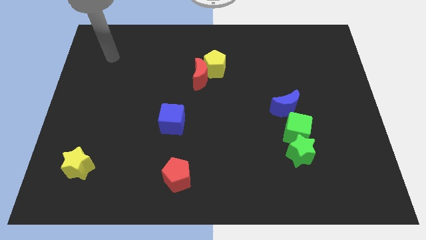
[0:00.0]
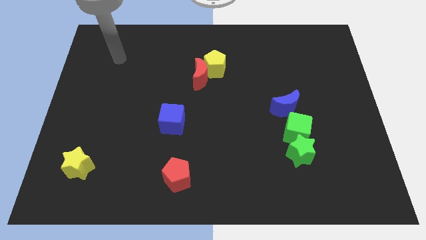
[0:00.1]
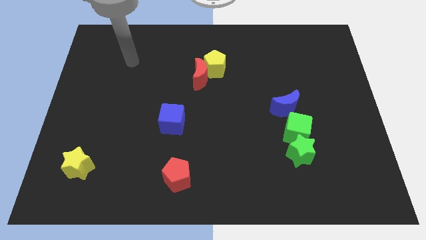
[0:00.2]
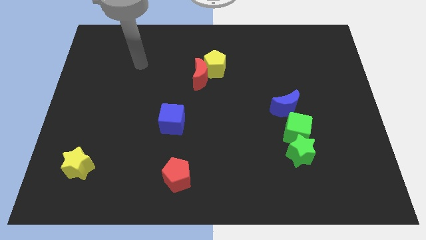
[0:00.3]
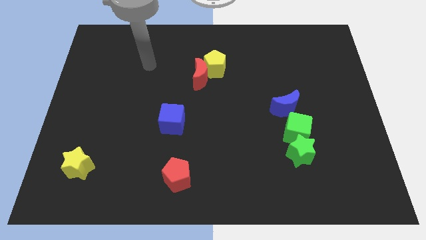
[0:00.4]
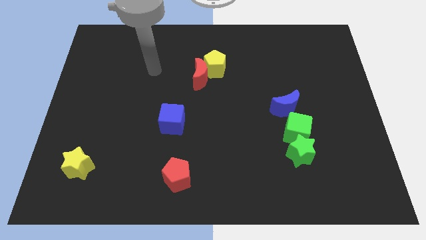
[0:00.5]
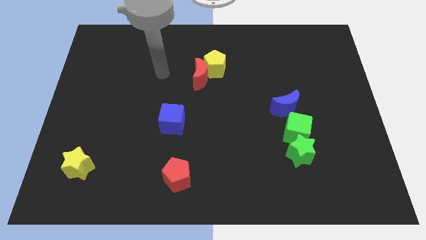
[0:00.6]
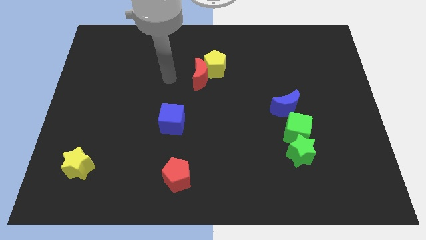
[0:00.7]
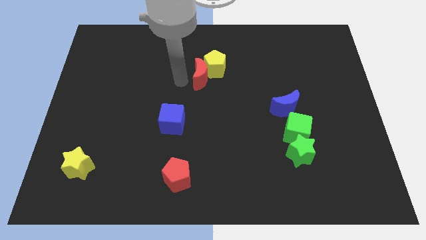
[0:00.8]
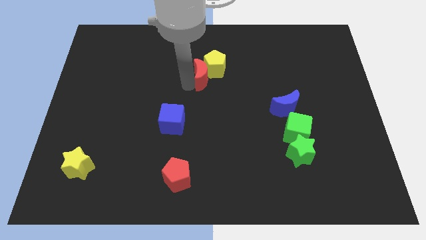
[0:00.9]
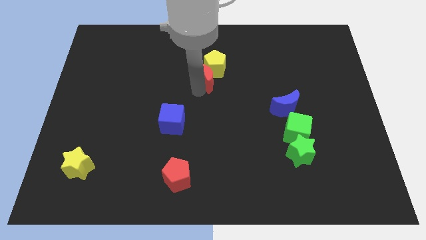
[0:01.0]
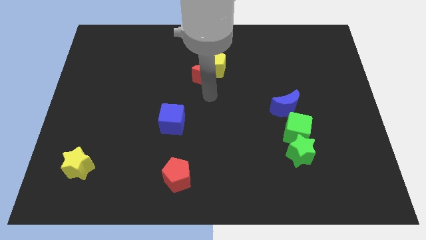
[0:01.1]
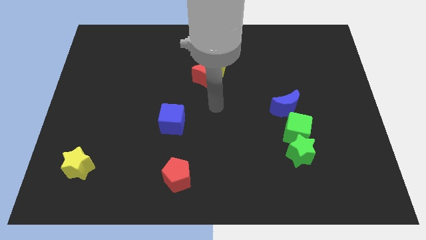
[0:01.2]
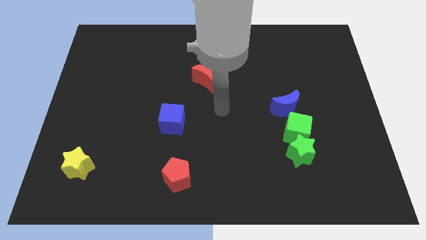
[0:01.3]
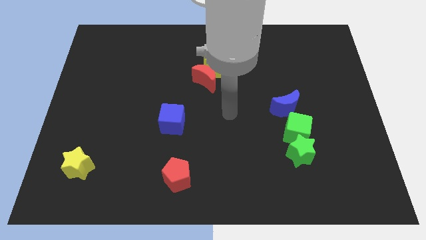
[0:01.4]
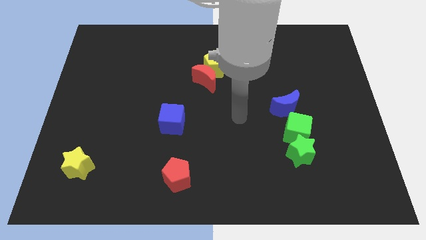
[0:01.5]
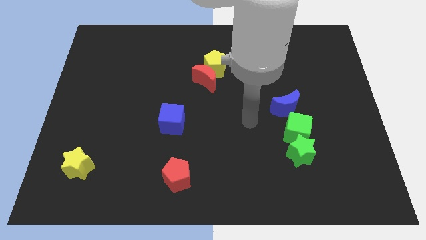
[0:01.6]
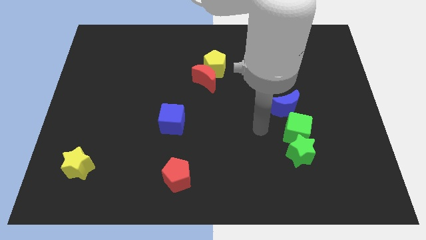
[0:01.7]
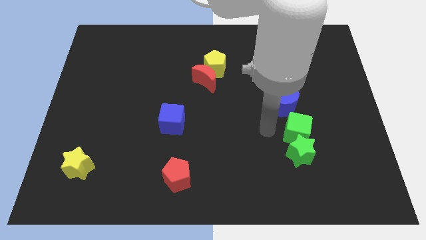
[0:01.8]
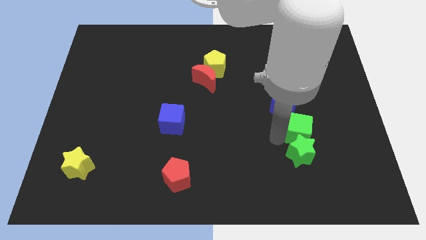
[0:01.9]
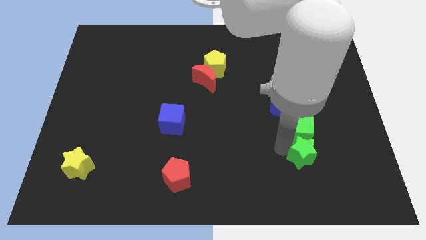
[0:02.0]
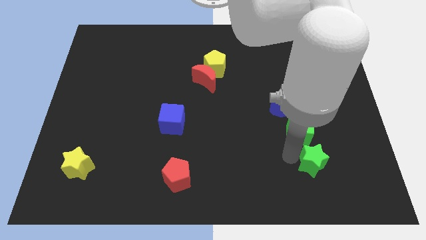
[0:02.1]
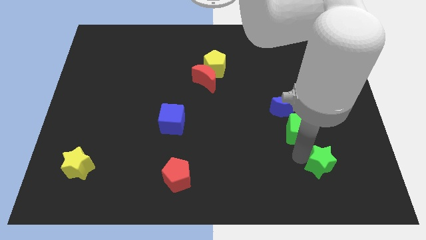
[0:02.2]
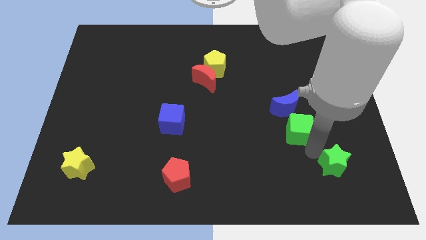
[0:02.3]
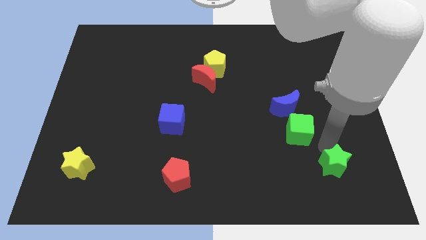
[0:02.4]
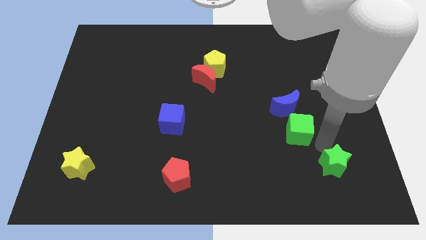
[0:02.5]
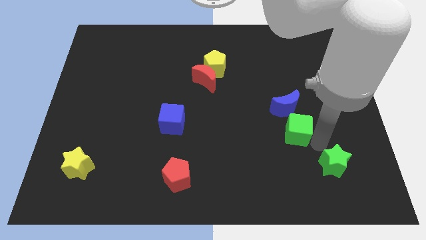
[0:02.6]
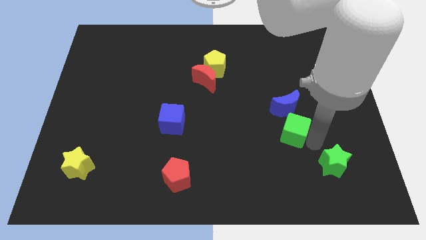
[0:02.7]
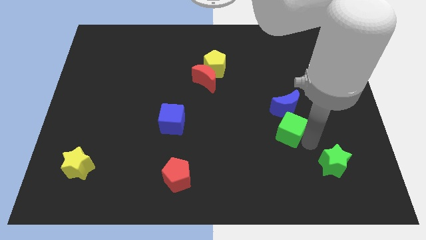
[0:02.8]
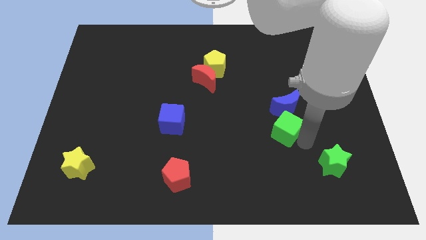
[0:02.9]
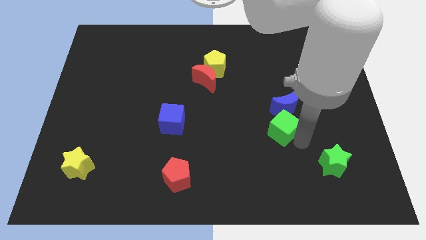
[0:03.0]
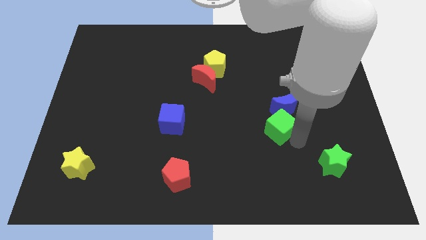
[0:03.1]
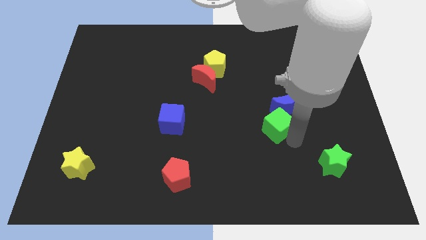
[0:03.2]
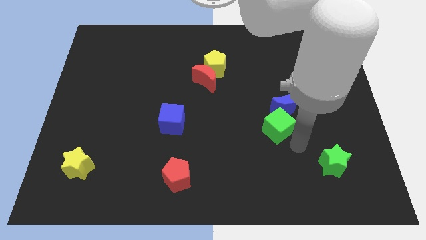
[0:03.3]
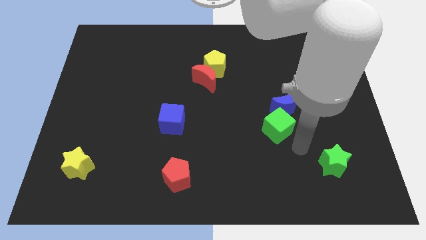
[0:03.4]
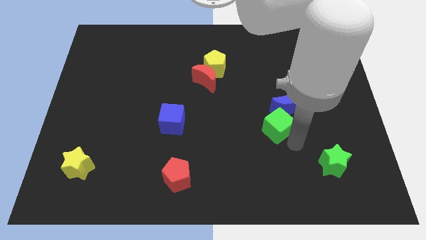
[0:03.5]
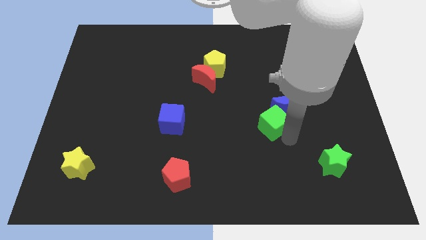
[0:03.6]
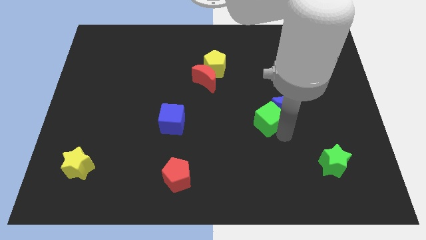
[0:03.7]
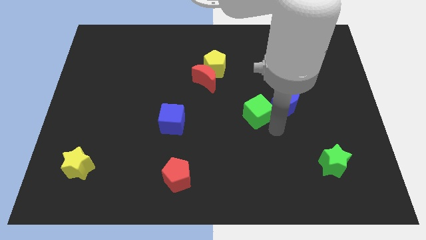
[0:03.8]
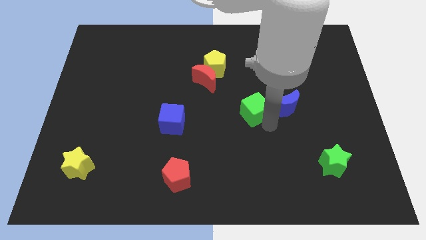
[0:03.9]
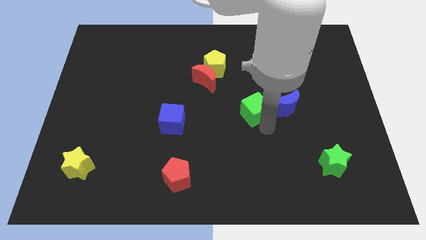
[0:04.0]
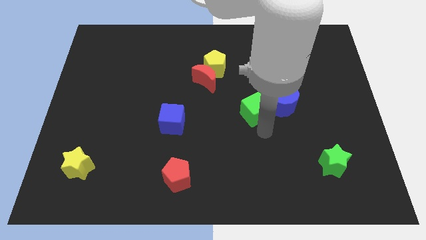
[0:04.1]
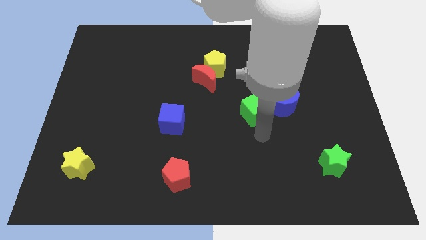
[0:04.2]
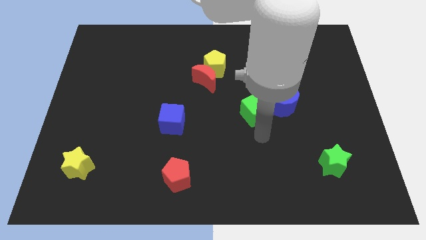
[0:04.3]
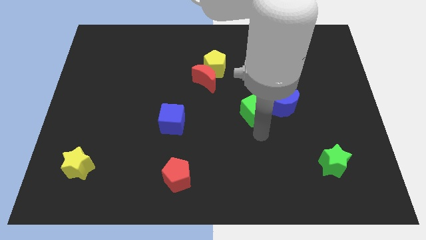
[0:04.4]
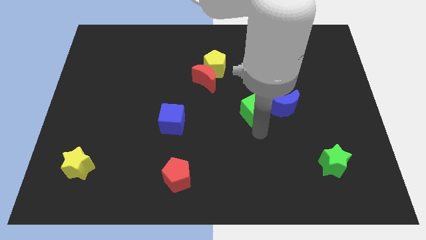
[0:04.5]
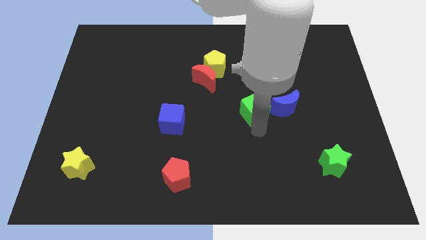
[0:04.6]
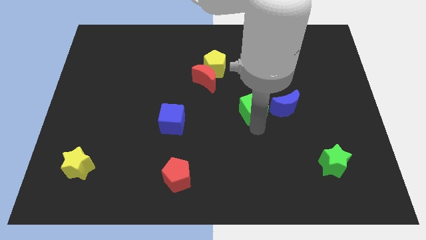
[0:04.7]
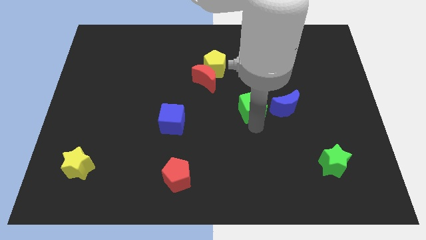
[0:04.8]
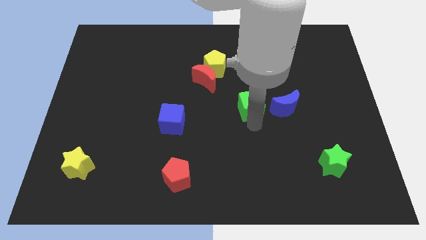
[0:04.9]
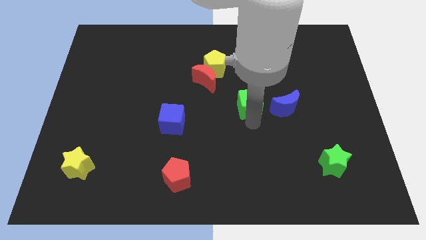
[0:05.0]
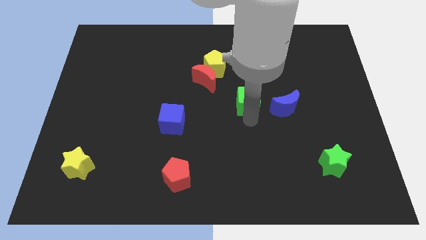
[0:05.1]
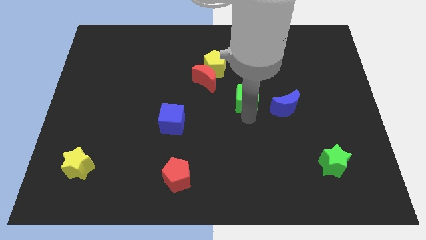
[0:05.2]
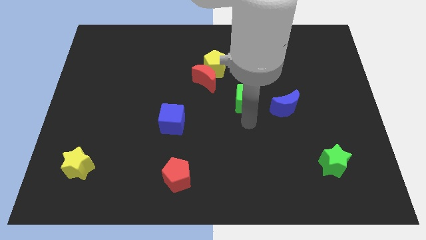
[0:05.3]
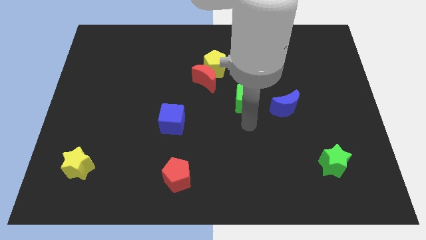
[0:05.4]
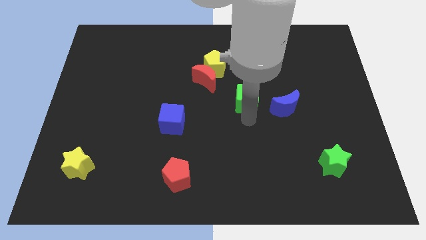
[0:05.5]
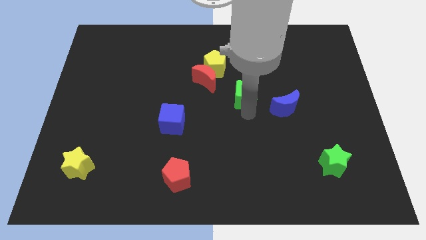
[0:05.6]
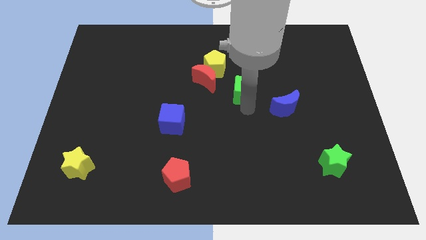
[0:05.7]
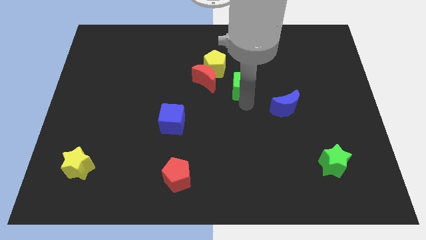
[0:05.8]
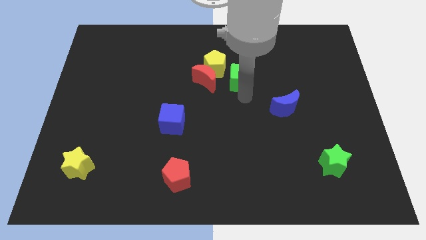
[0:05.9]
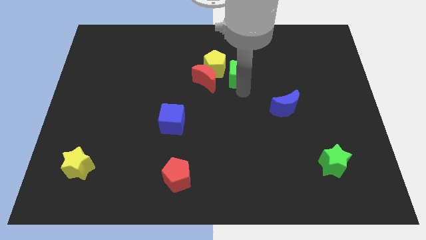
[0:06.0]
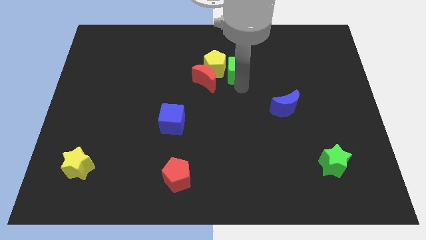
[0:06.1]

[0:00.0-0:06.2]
put the green cube to the top right side of the red moon
